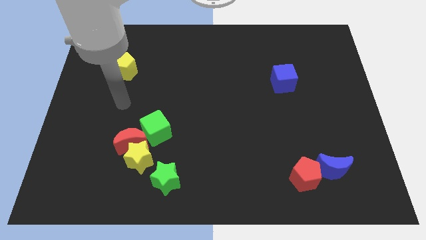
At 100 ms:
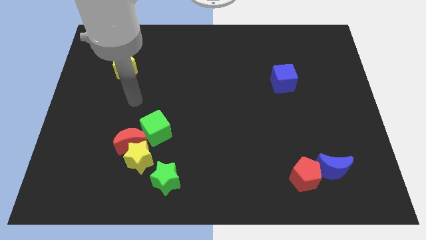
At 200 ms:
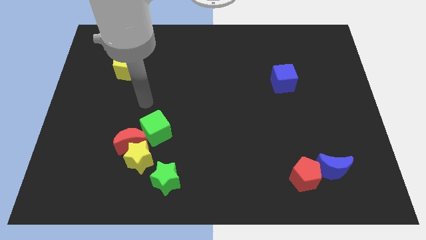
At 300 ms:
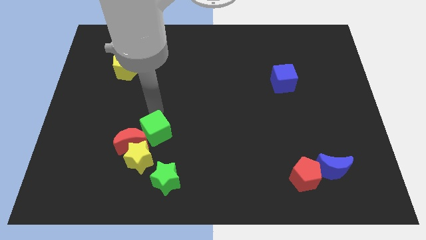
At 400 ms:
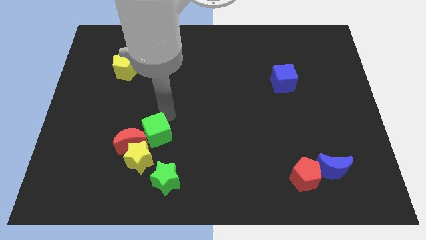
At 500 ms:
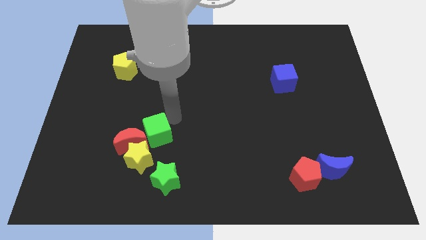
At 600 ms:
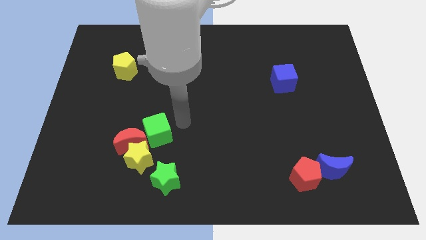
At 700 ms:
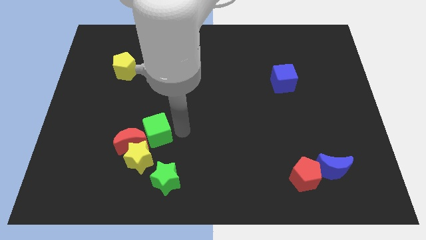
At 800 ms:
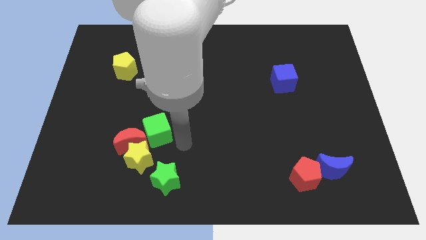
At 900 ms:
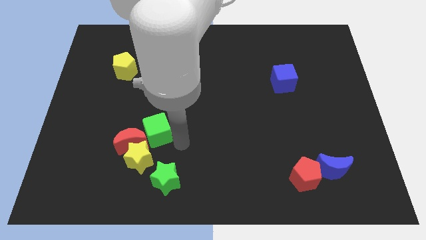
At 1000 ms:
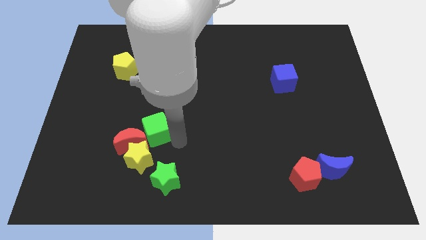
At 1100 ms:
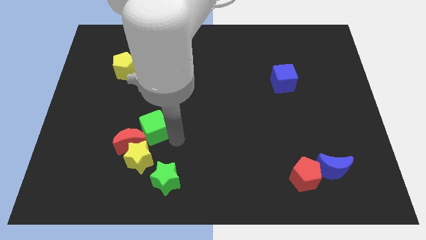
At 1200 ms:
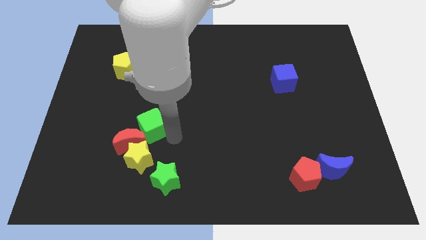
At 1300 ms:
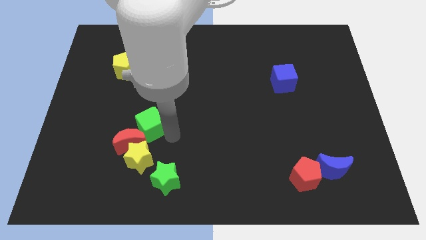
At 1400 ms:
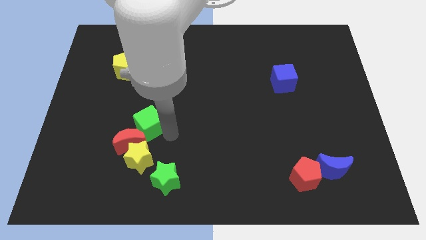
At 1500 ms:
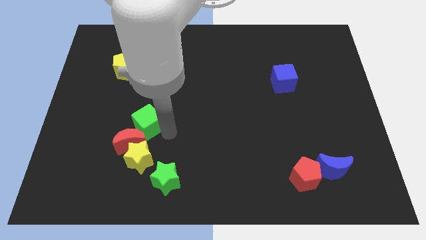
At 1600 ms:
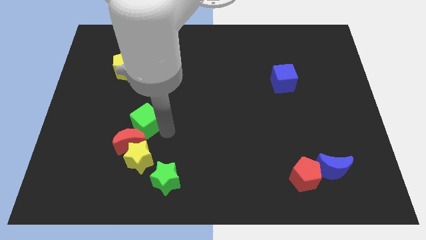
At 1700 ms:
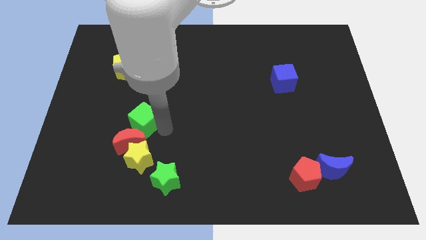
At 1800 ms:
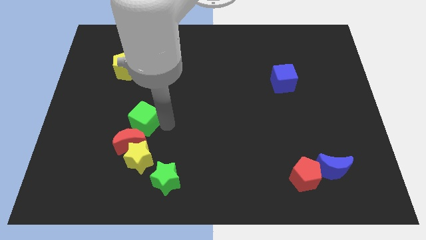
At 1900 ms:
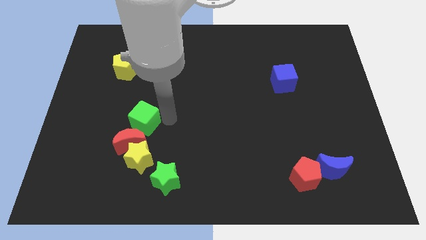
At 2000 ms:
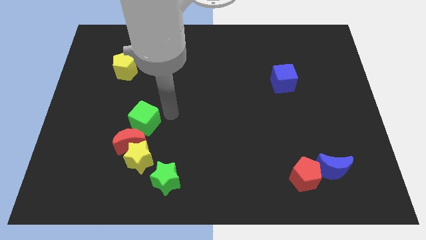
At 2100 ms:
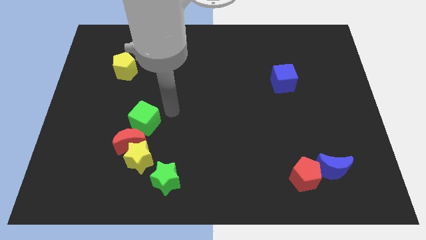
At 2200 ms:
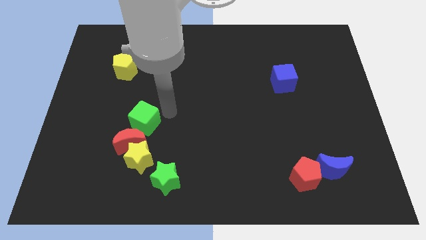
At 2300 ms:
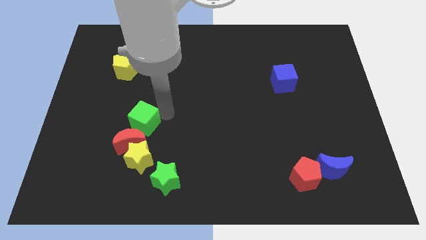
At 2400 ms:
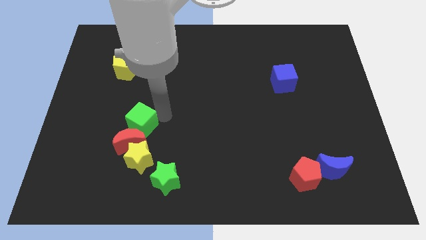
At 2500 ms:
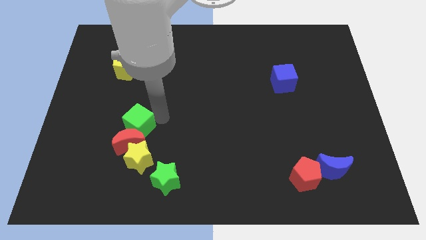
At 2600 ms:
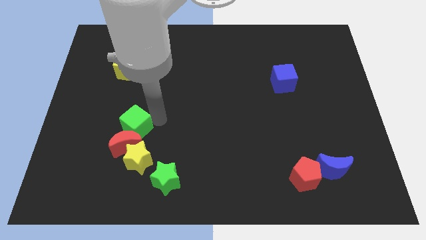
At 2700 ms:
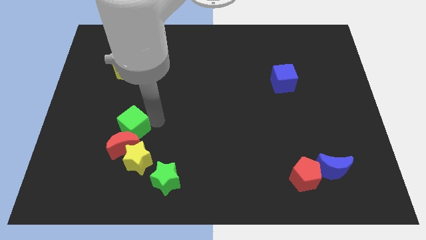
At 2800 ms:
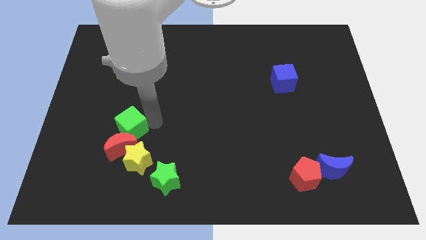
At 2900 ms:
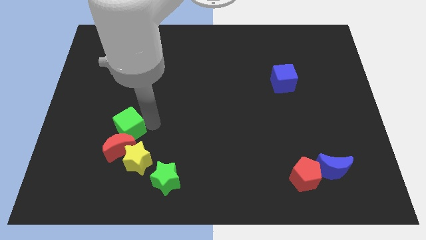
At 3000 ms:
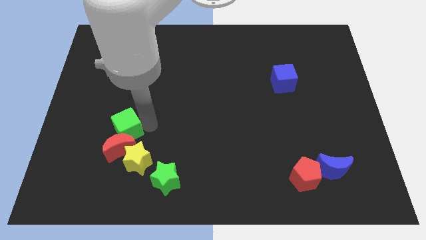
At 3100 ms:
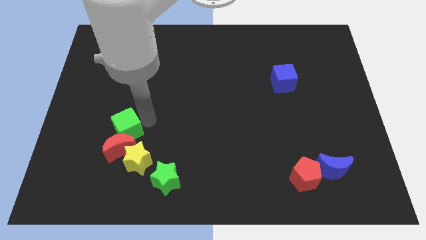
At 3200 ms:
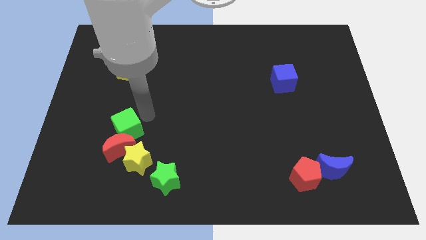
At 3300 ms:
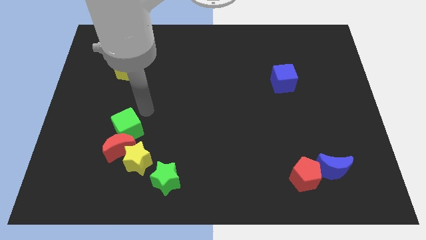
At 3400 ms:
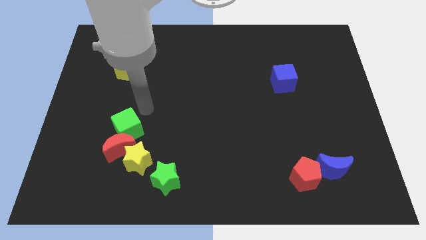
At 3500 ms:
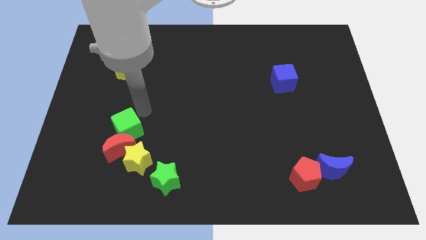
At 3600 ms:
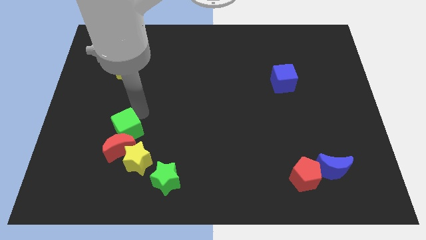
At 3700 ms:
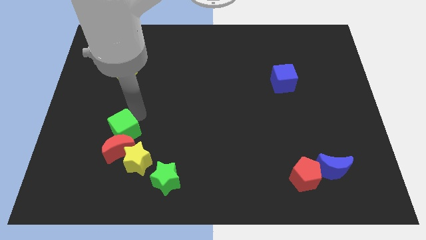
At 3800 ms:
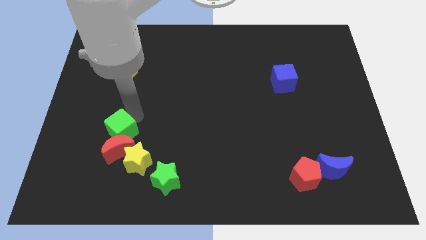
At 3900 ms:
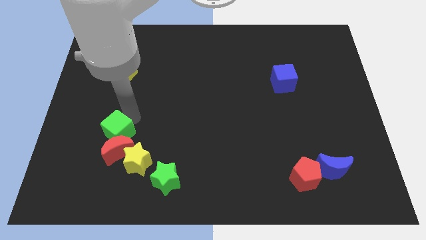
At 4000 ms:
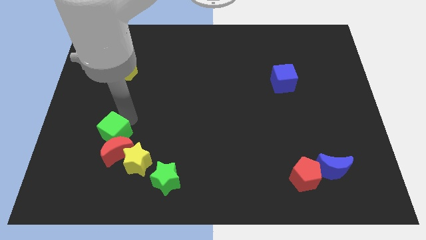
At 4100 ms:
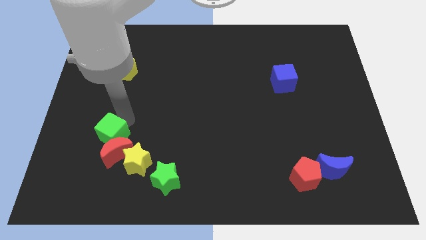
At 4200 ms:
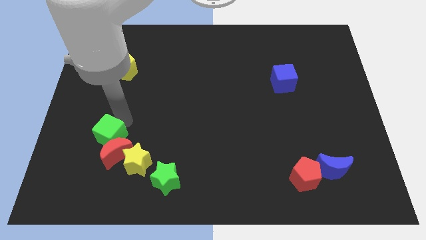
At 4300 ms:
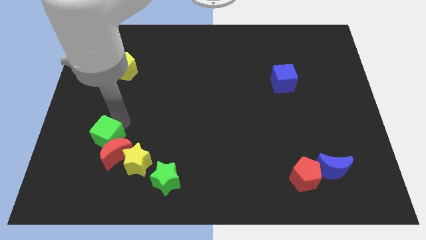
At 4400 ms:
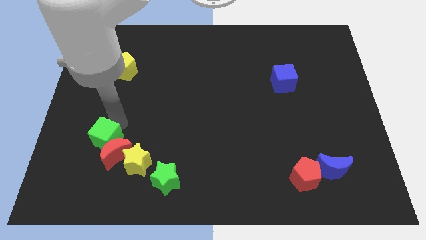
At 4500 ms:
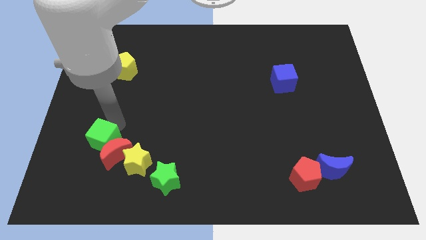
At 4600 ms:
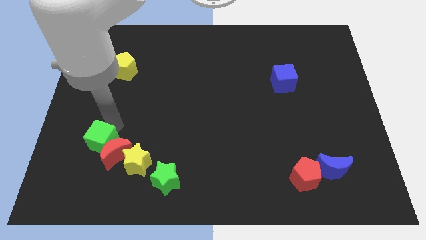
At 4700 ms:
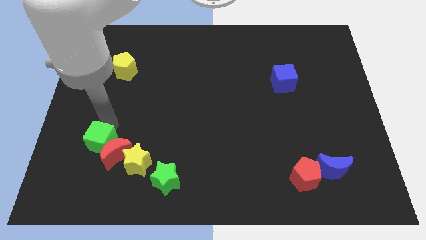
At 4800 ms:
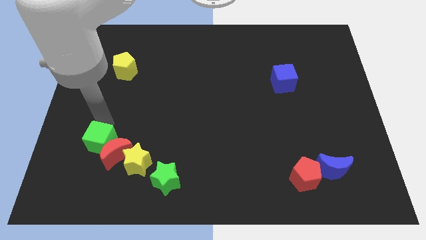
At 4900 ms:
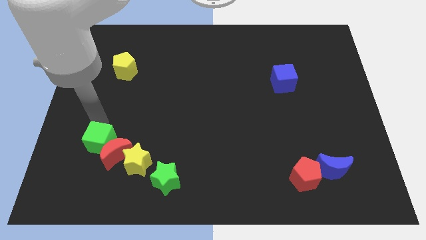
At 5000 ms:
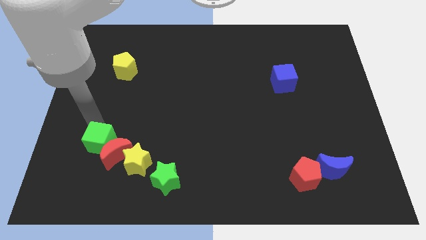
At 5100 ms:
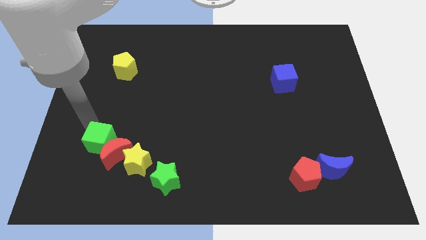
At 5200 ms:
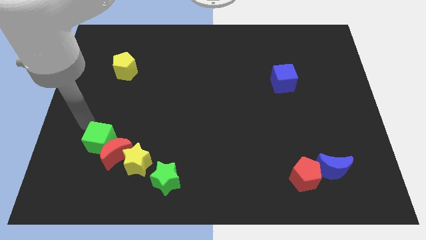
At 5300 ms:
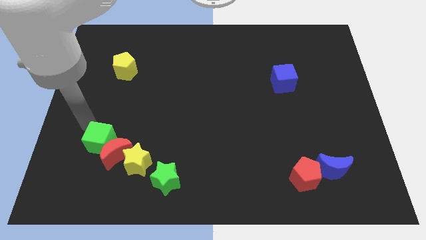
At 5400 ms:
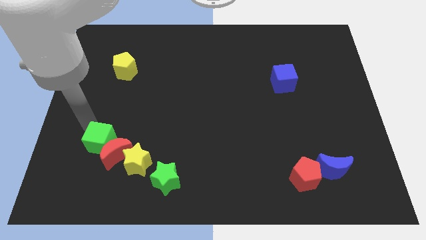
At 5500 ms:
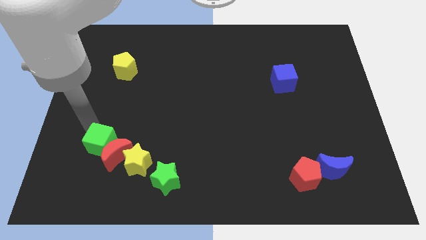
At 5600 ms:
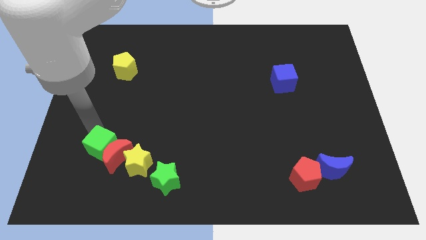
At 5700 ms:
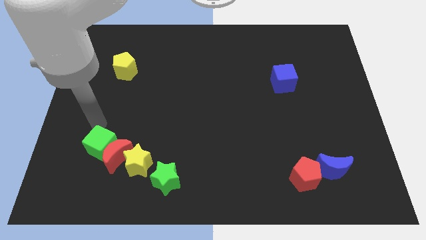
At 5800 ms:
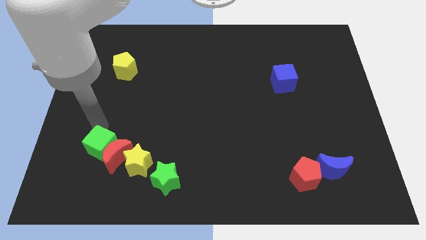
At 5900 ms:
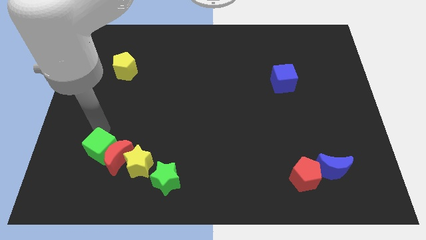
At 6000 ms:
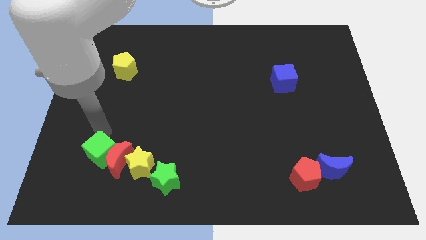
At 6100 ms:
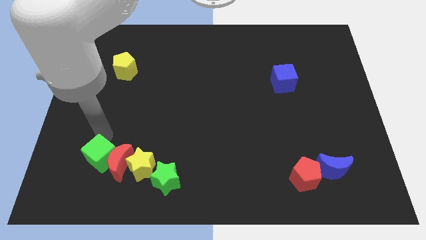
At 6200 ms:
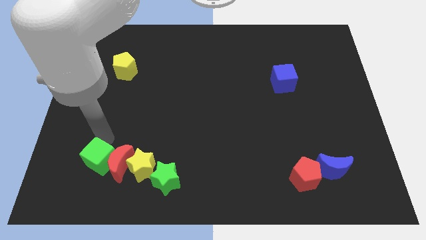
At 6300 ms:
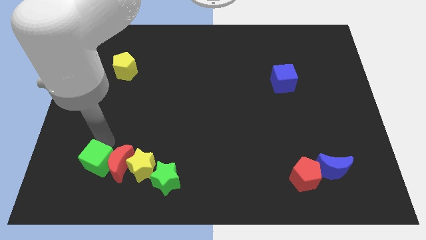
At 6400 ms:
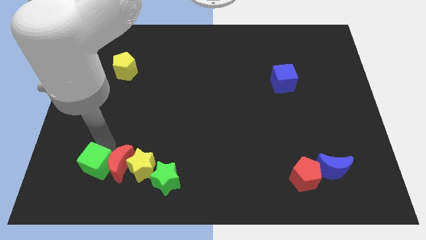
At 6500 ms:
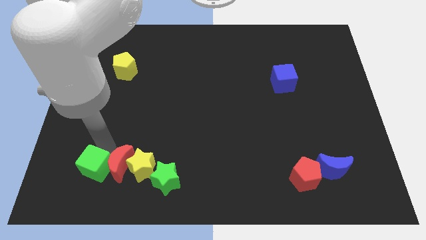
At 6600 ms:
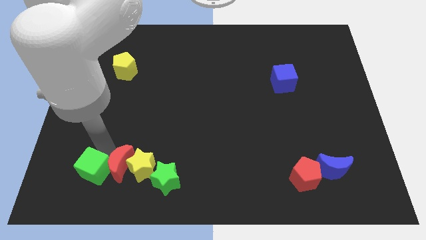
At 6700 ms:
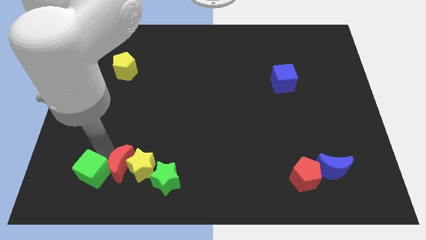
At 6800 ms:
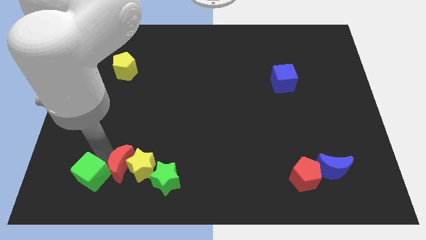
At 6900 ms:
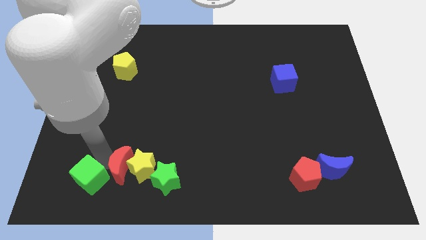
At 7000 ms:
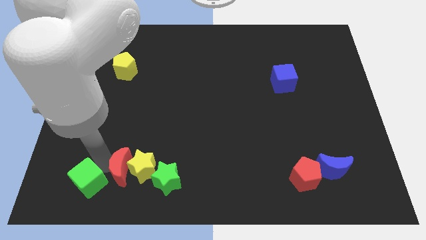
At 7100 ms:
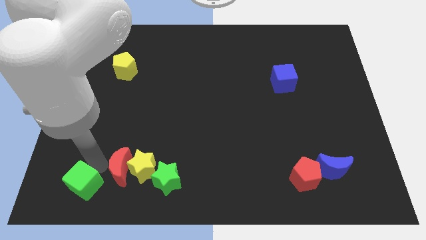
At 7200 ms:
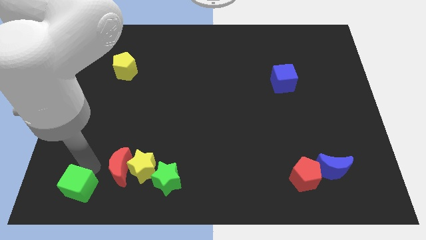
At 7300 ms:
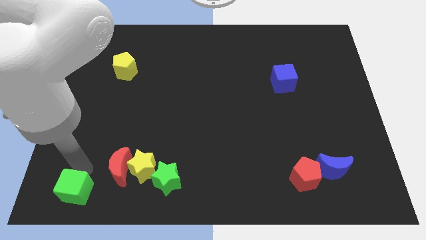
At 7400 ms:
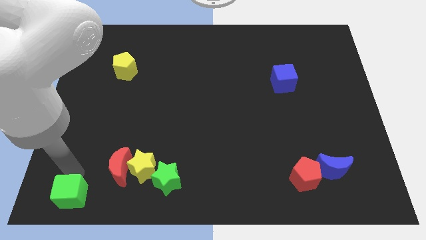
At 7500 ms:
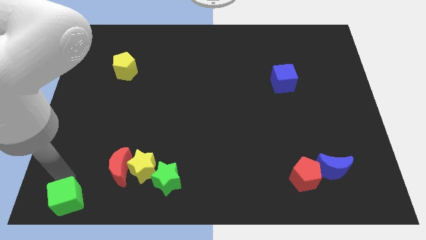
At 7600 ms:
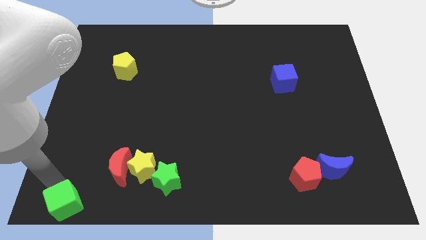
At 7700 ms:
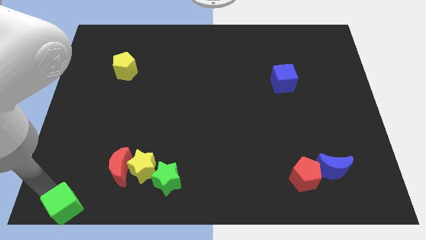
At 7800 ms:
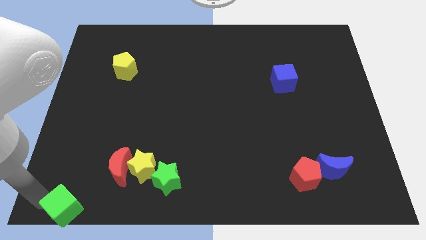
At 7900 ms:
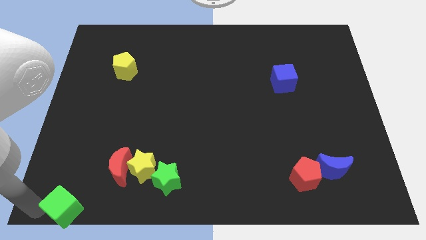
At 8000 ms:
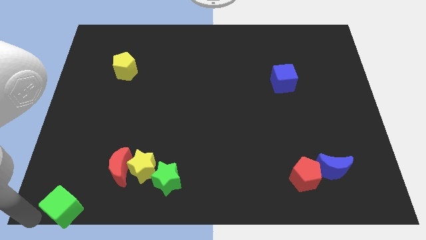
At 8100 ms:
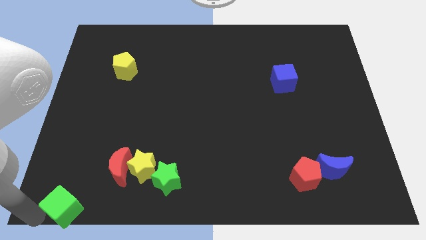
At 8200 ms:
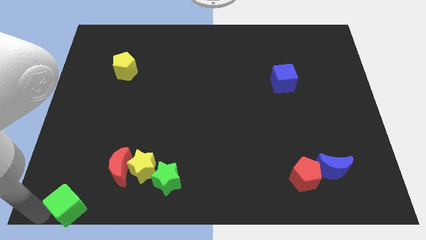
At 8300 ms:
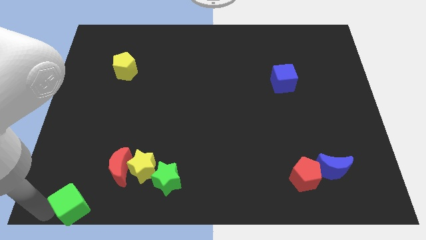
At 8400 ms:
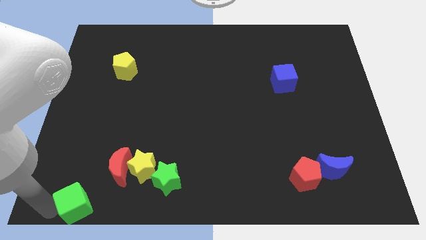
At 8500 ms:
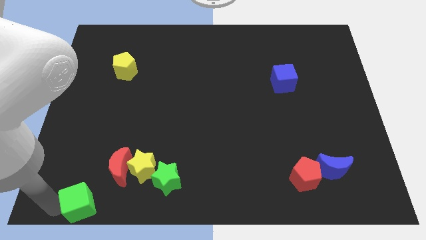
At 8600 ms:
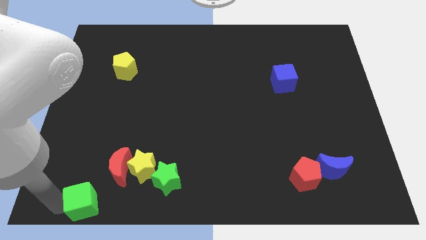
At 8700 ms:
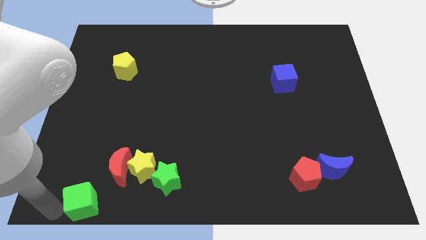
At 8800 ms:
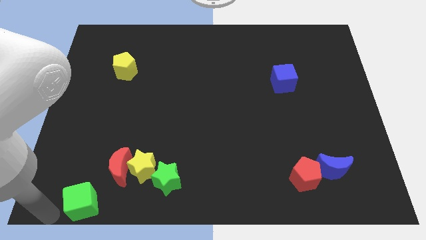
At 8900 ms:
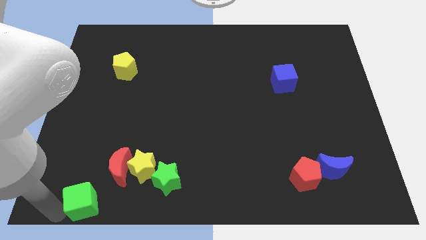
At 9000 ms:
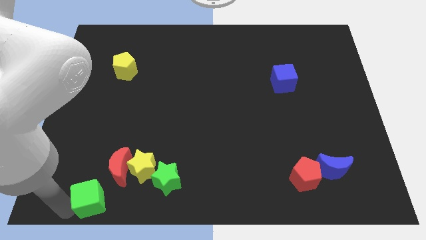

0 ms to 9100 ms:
move the green cube to the bottom left of the yellow star
